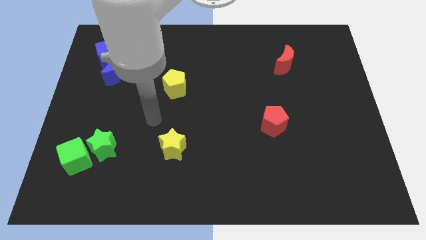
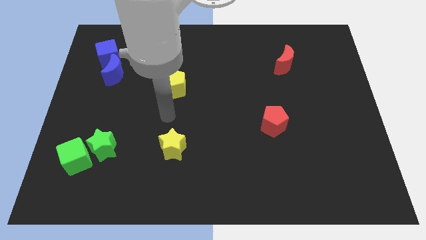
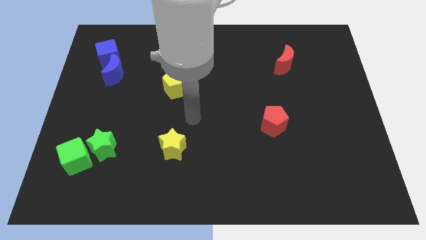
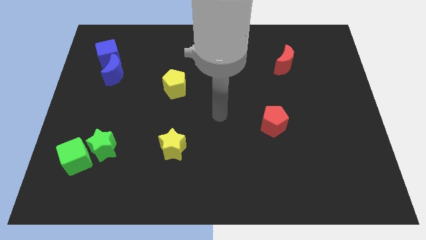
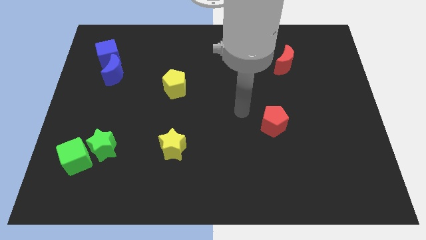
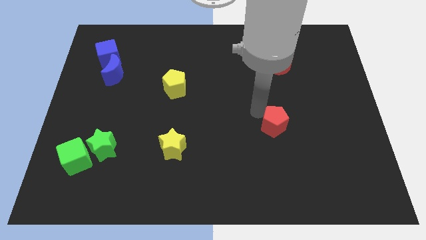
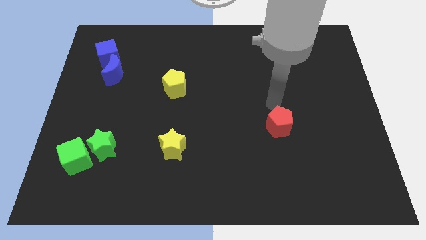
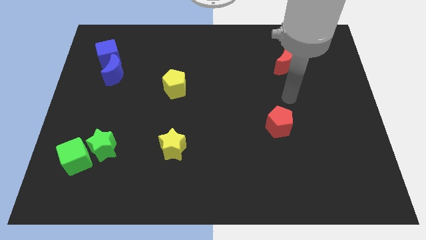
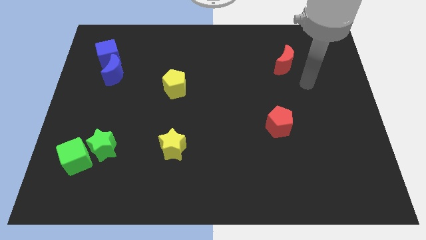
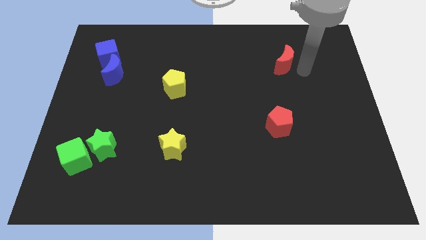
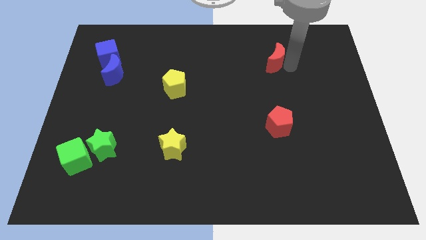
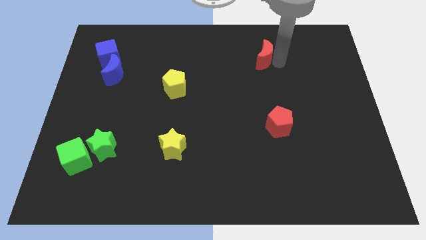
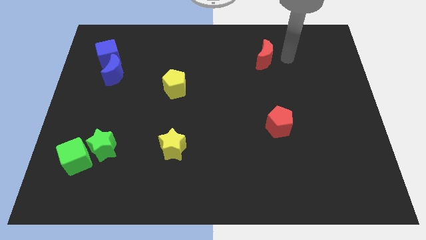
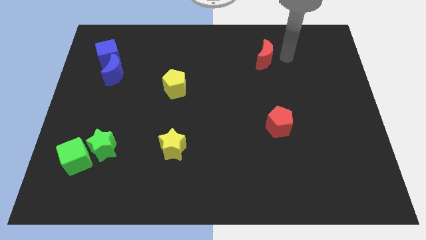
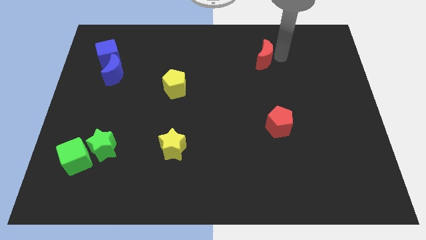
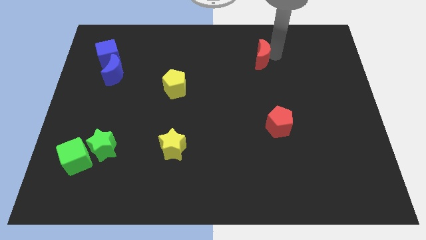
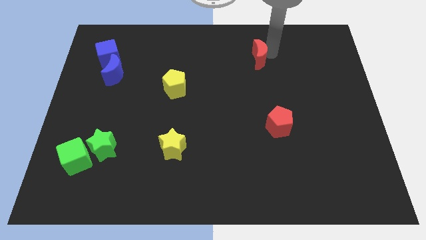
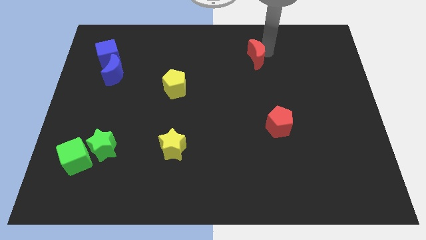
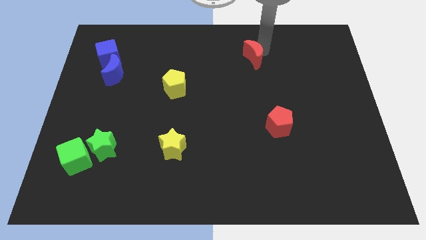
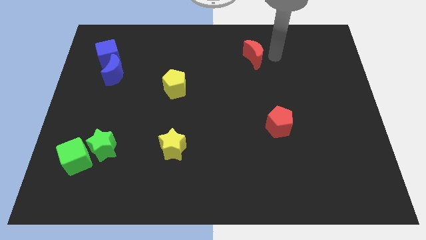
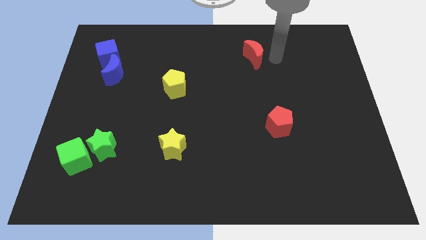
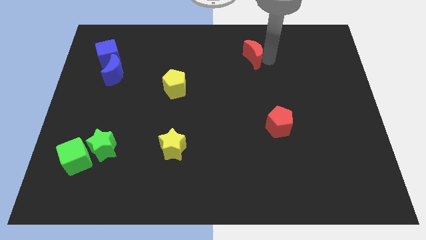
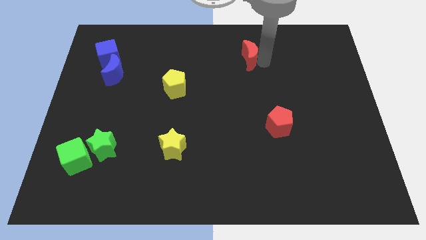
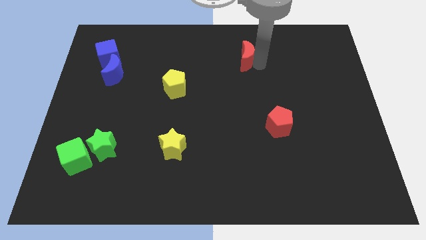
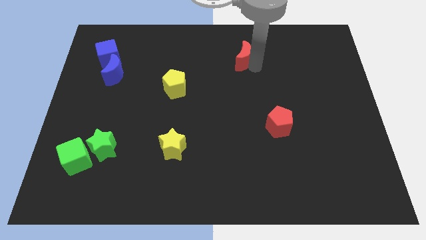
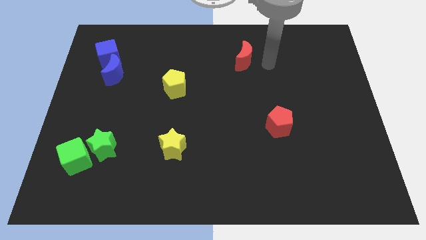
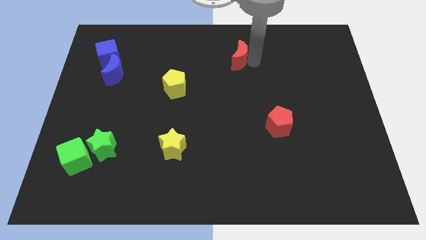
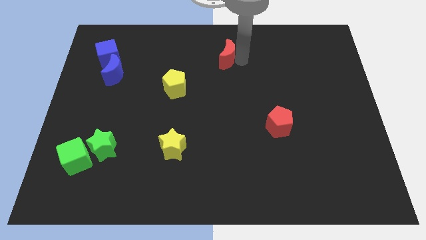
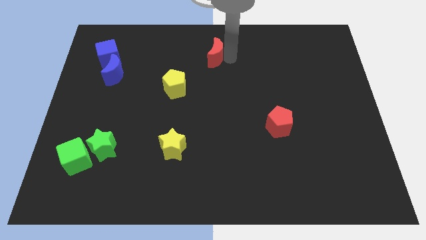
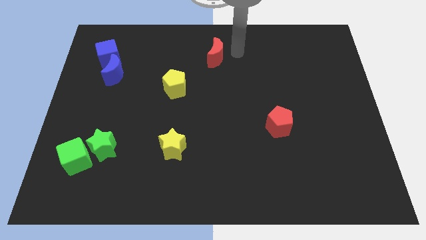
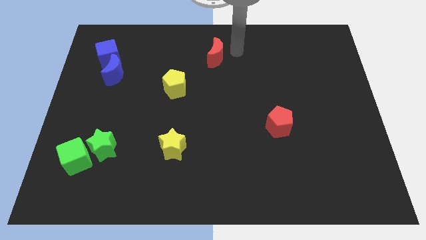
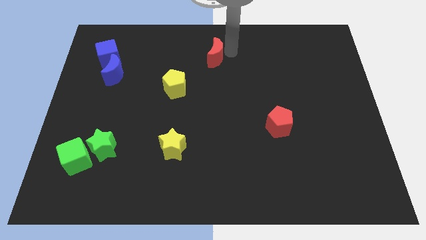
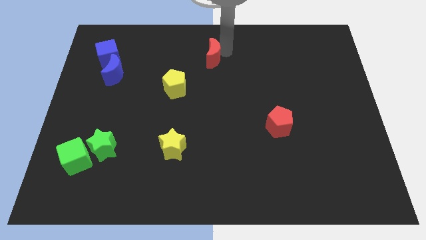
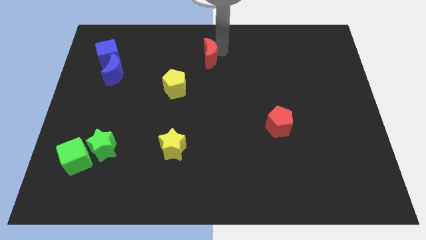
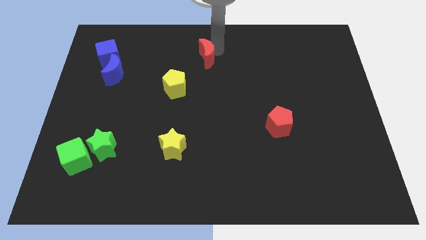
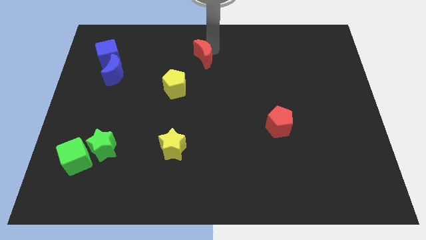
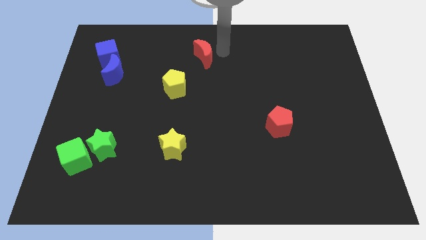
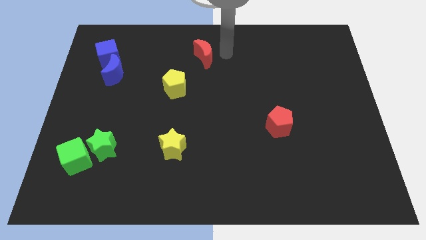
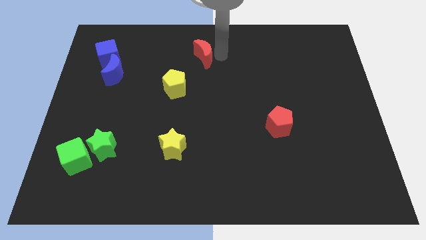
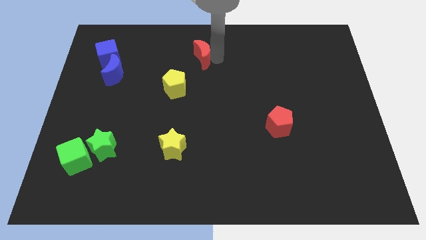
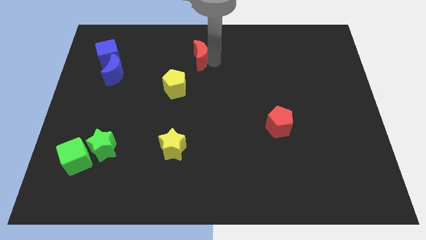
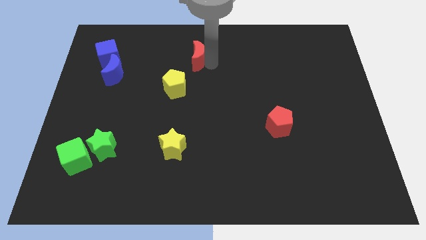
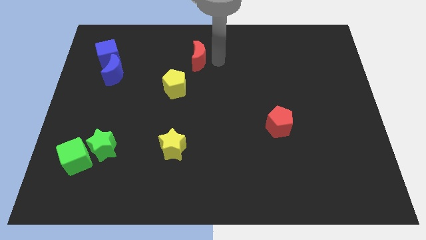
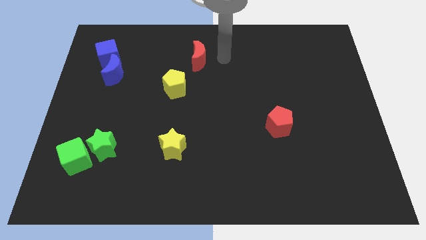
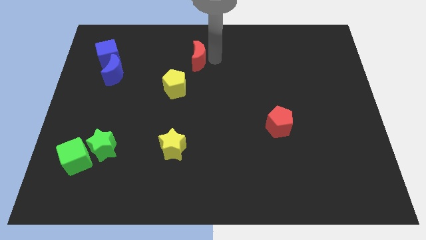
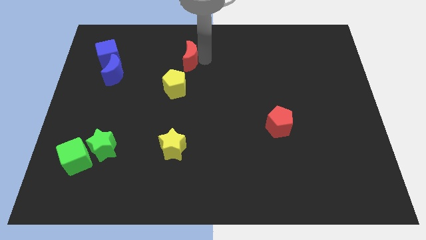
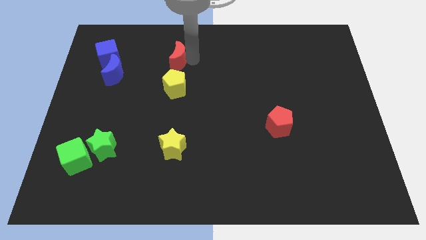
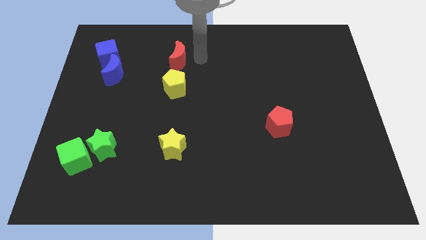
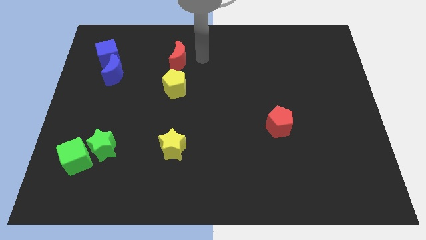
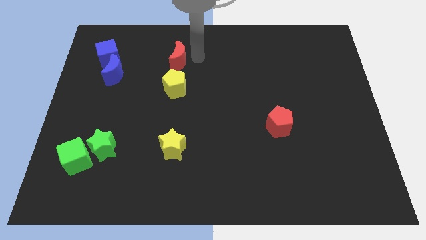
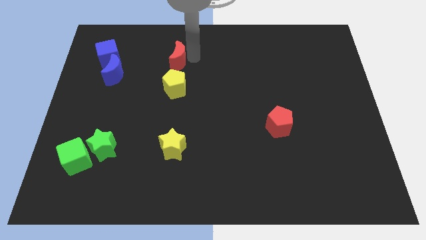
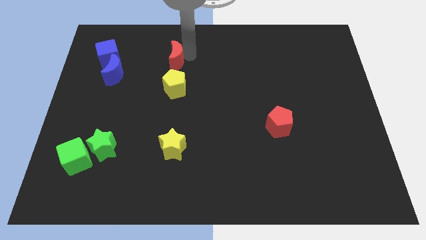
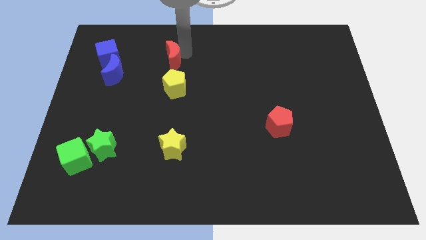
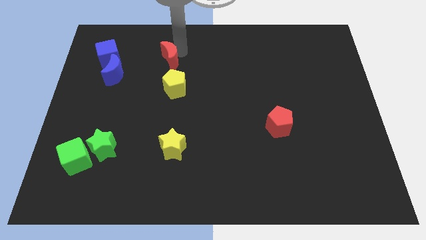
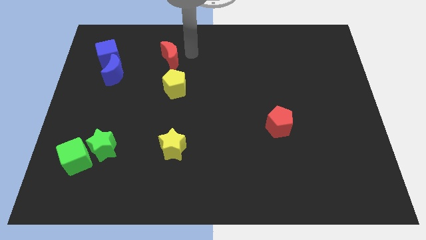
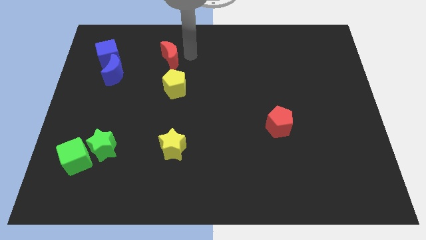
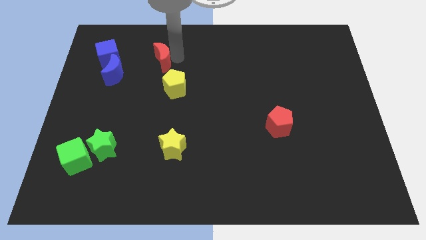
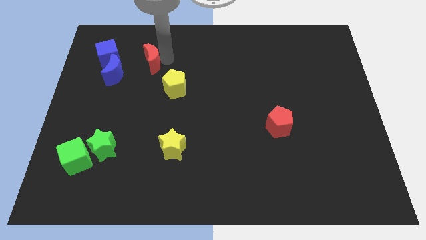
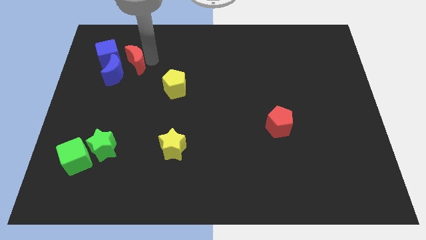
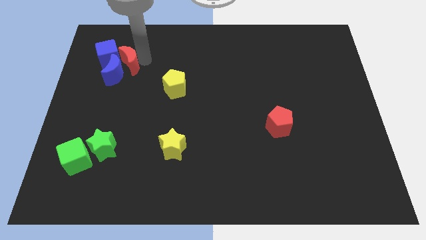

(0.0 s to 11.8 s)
slide the red moon to the blue moon

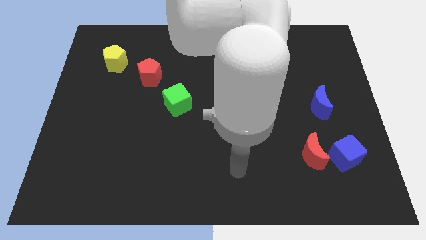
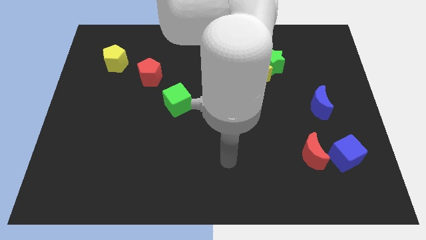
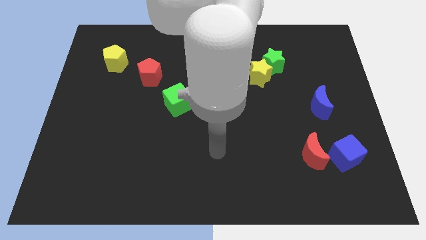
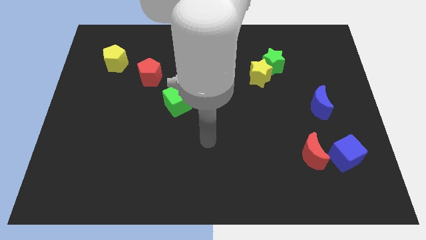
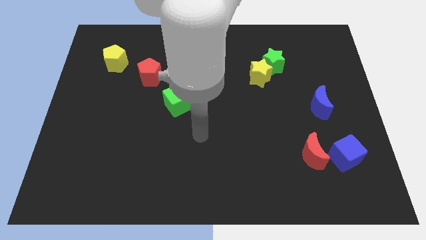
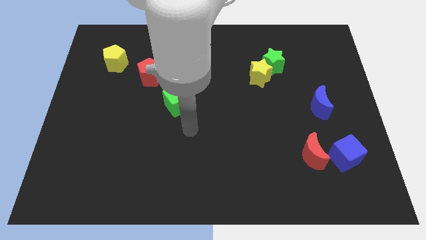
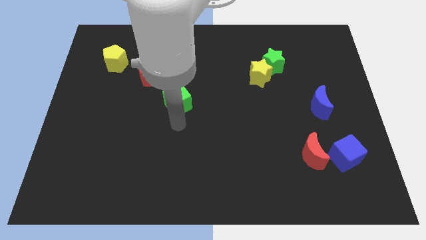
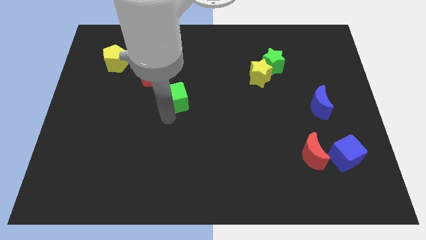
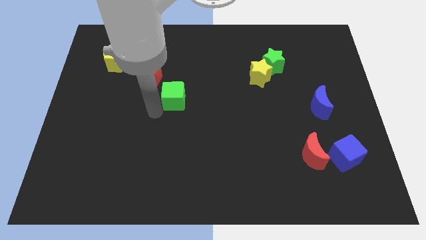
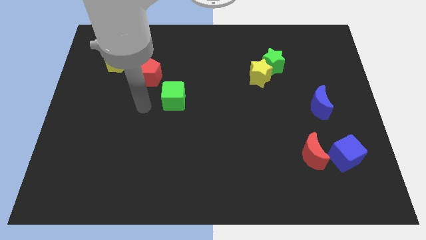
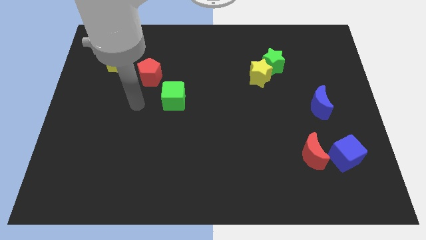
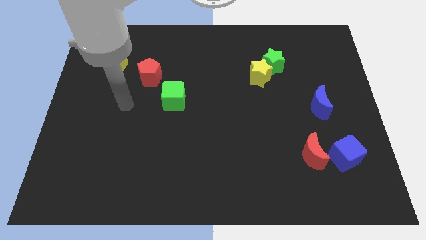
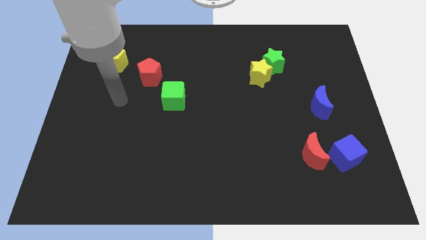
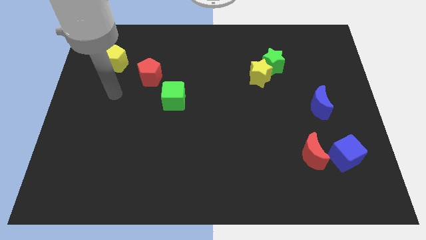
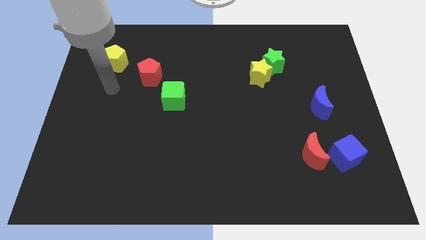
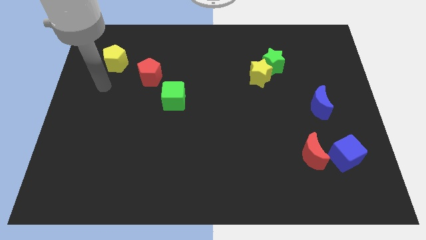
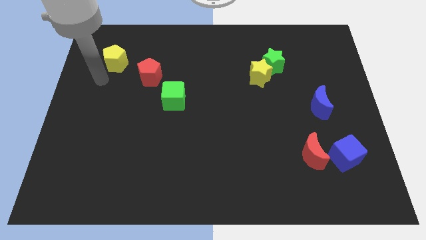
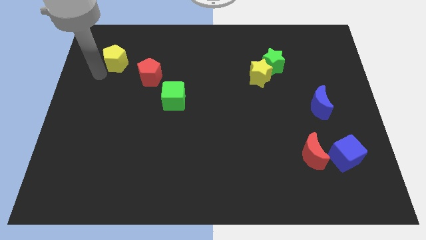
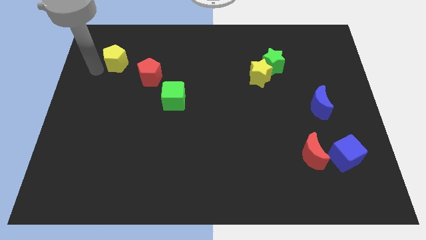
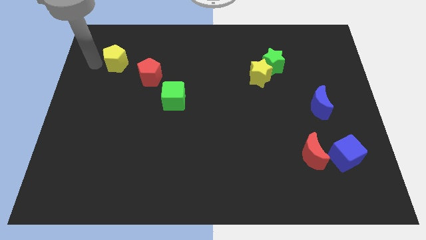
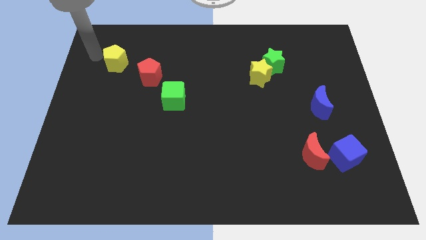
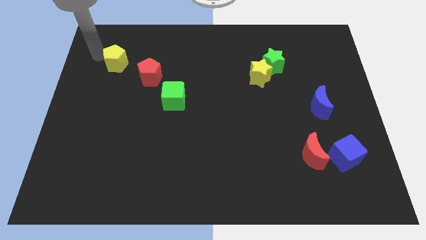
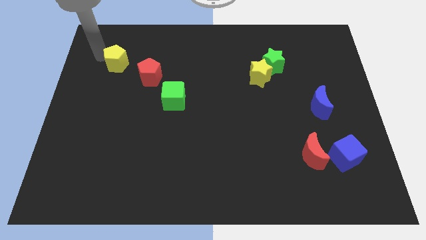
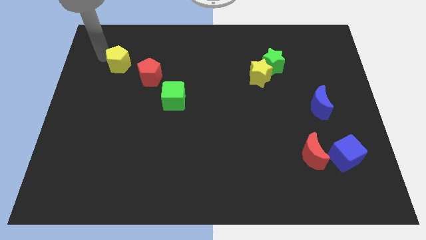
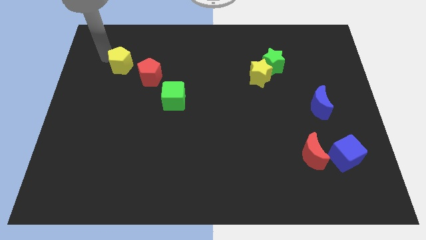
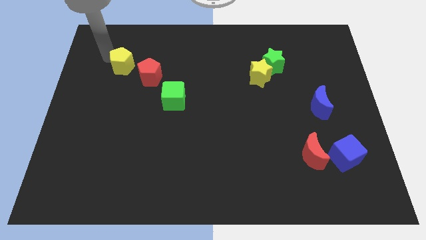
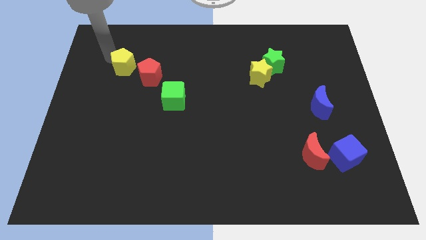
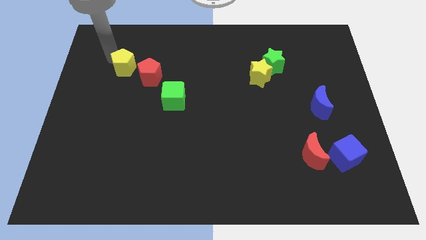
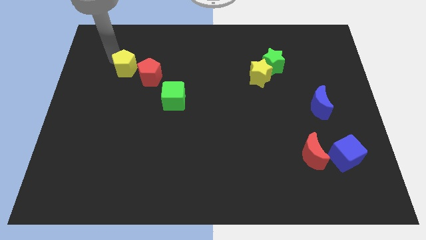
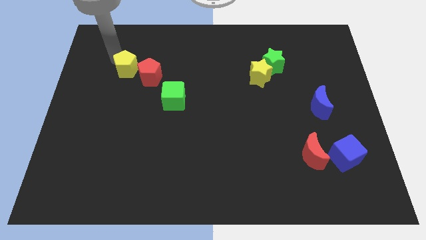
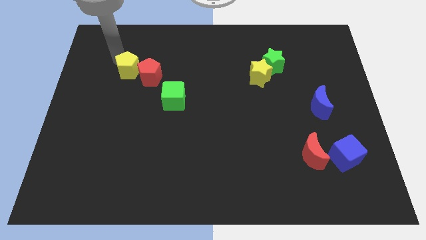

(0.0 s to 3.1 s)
slide the yellow pentagon to the red pentagon
